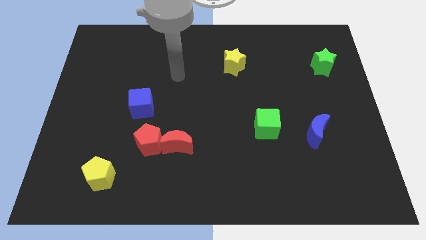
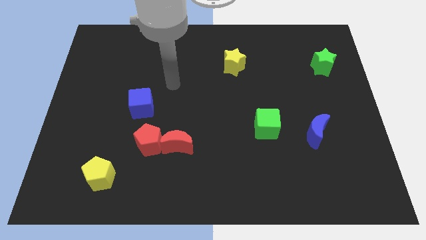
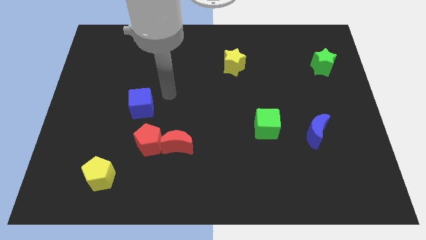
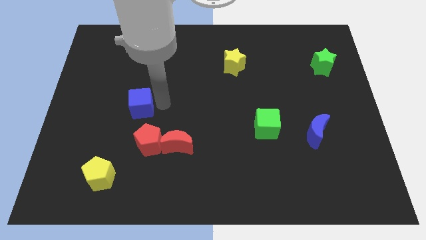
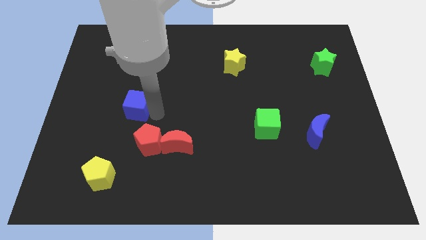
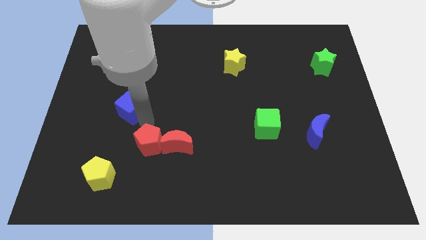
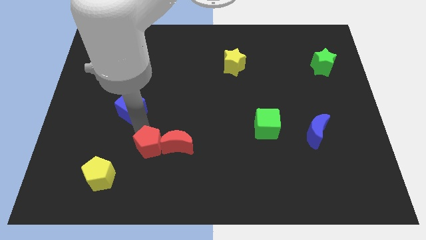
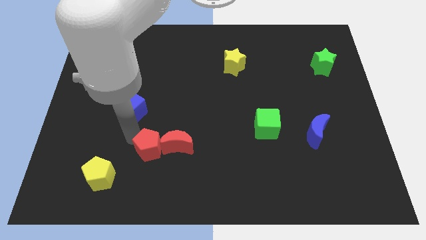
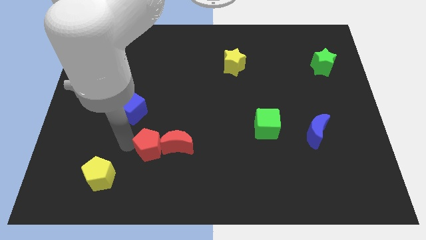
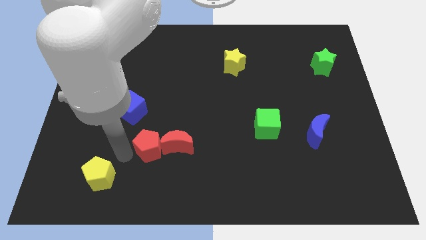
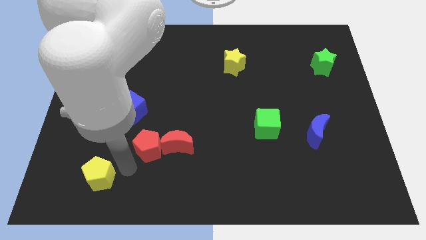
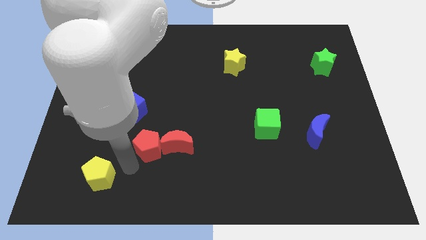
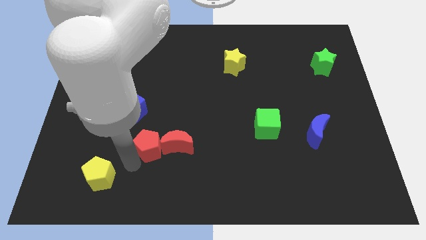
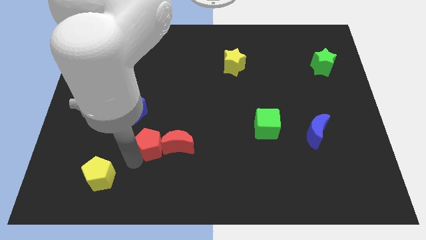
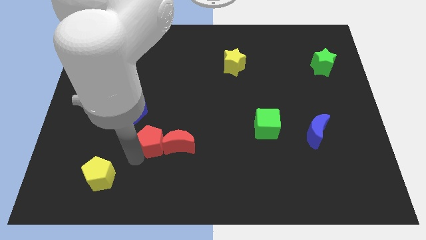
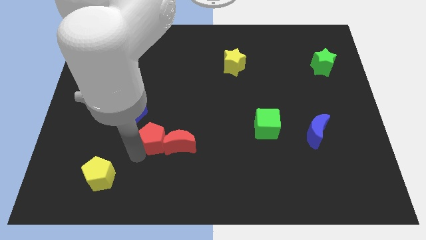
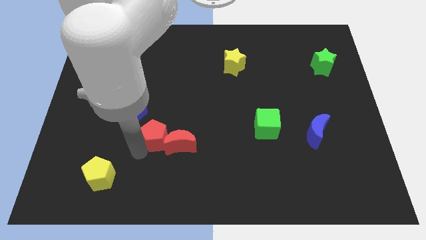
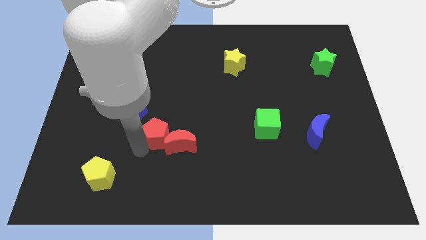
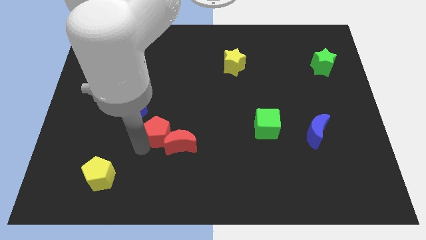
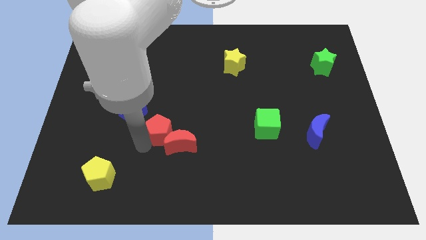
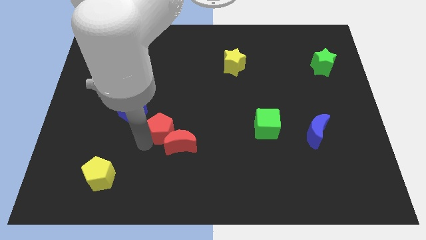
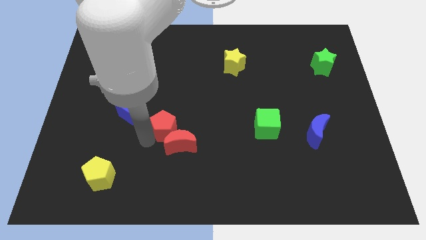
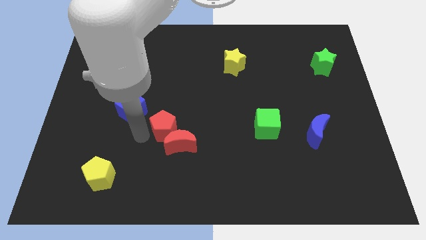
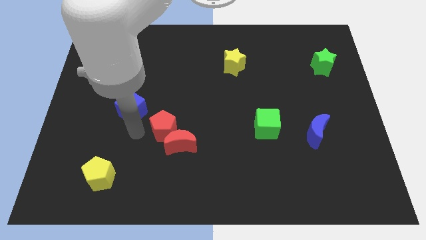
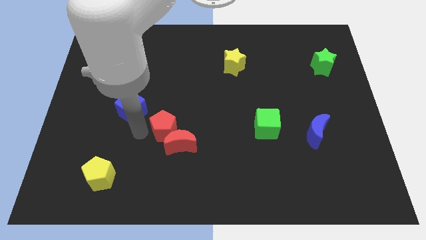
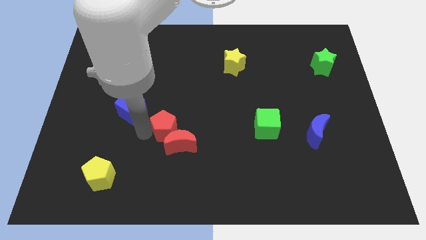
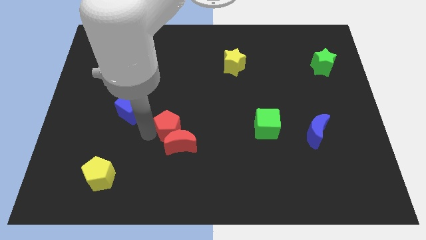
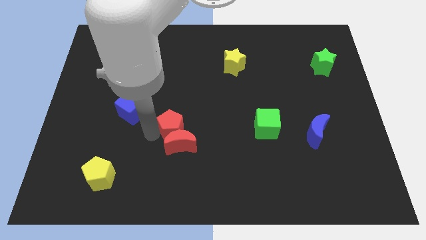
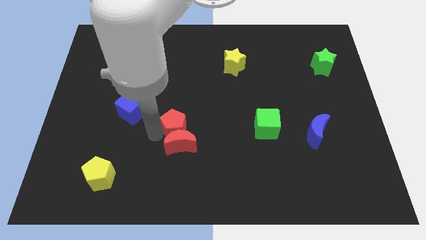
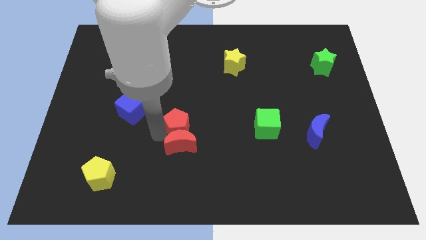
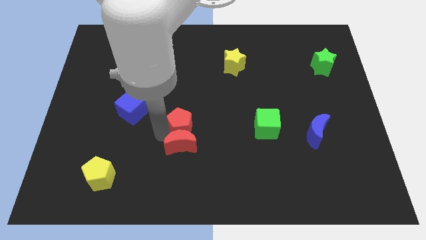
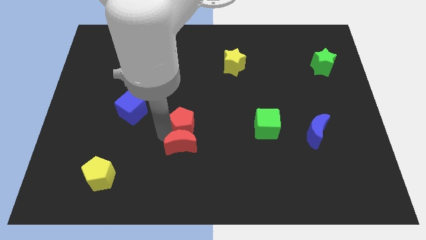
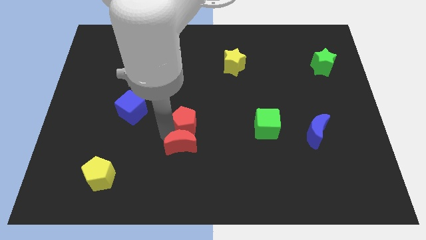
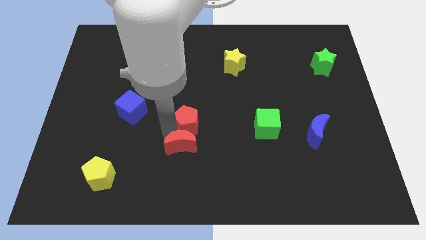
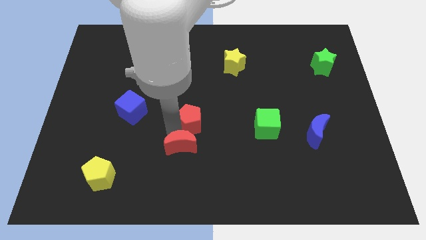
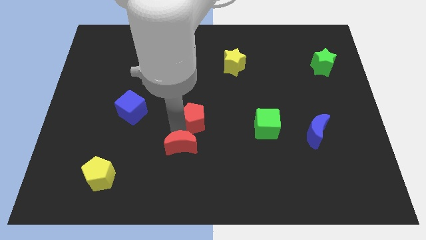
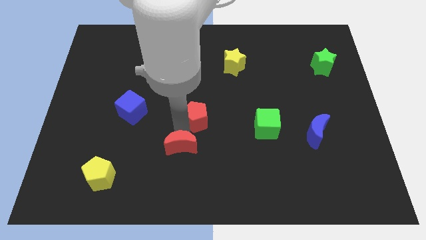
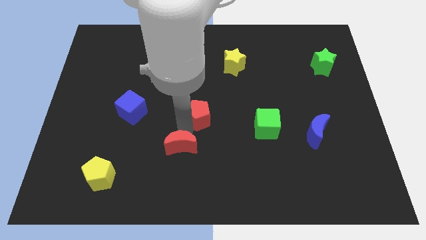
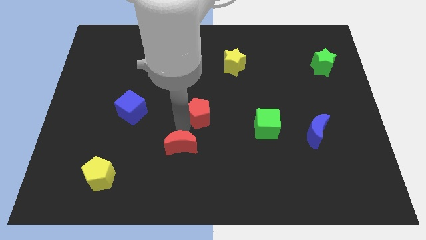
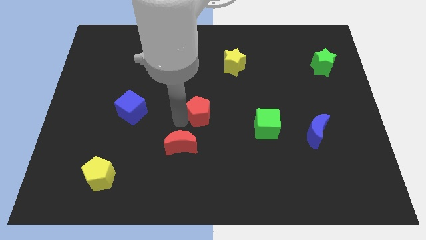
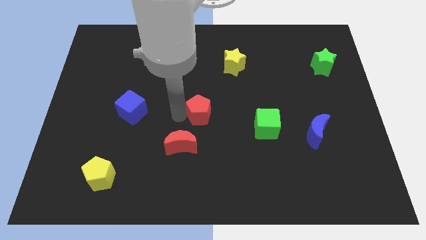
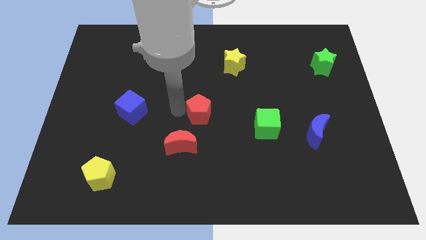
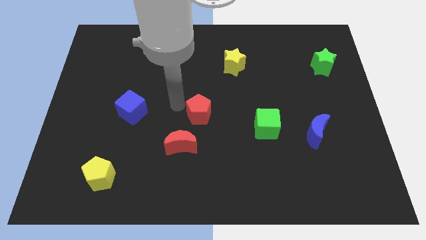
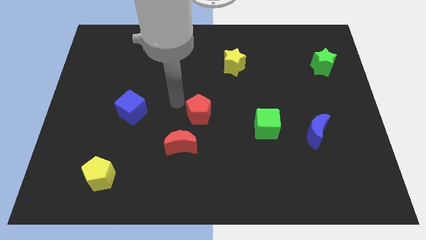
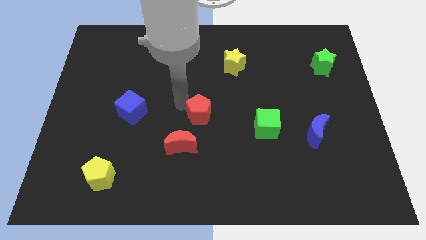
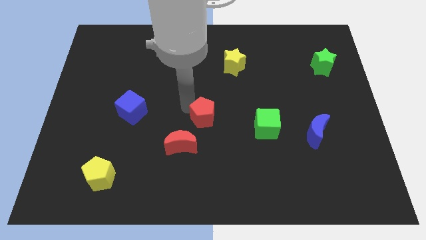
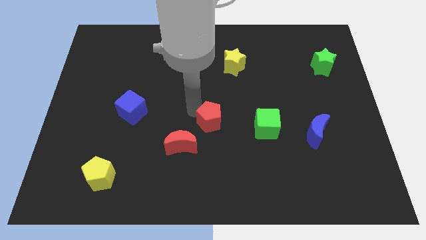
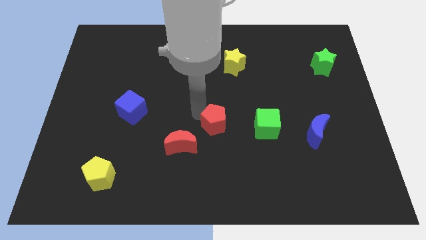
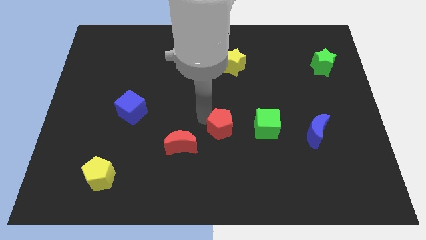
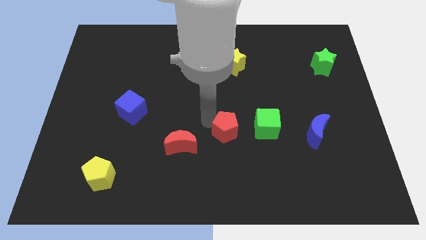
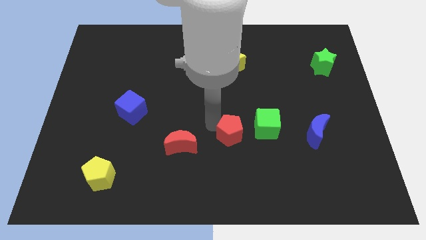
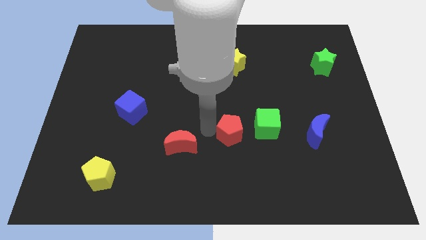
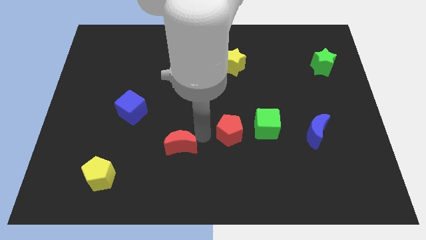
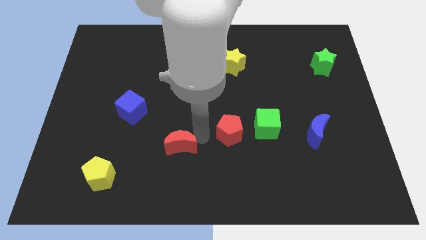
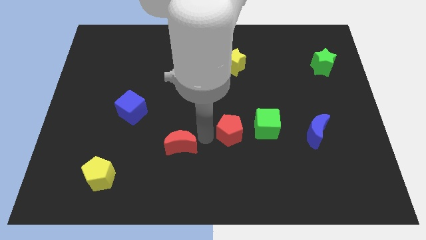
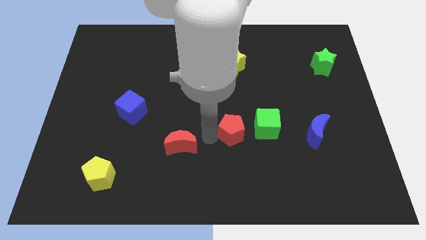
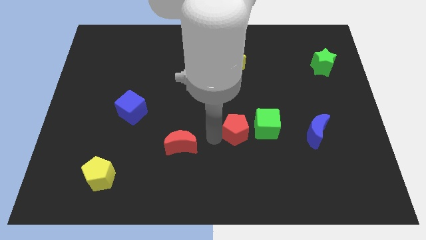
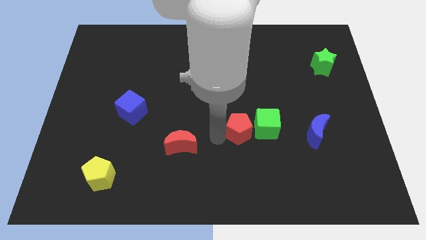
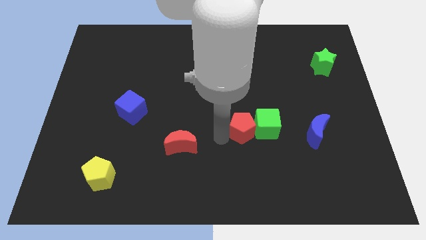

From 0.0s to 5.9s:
slide the red pentagon close to the green cube

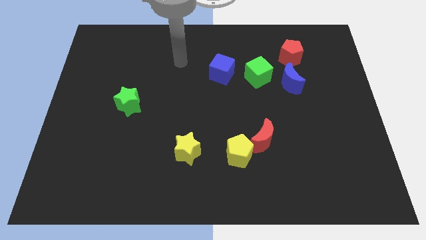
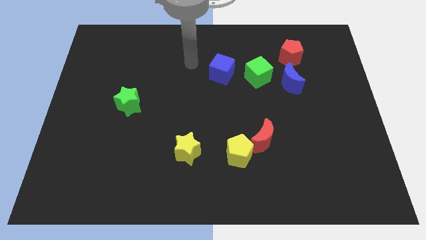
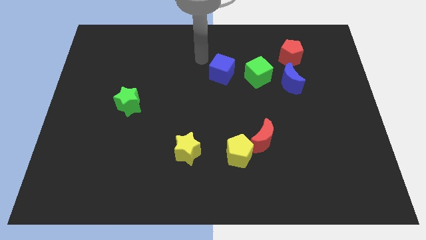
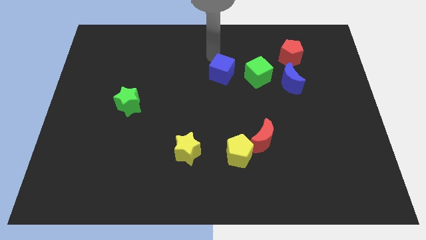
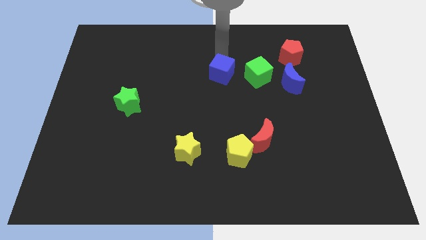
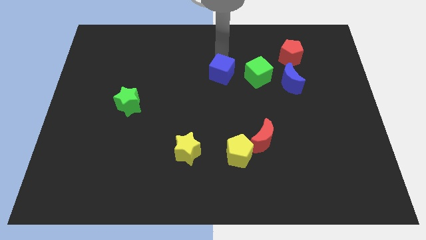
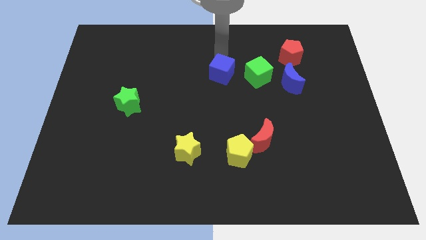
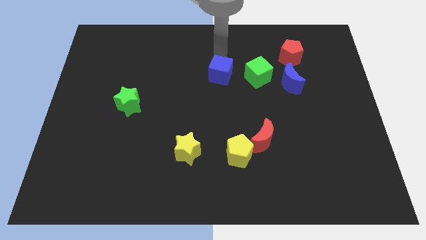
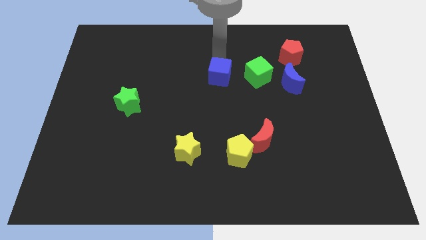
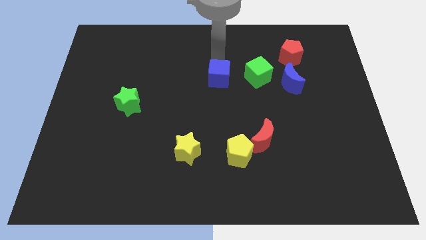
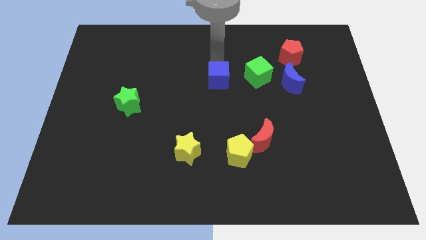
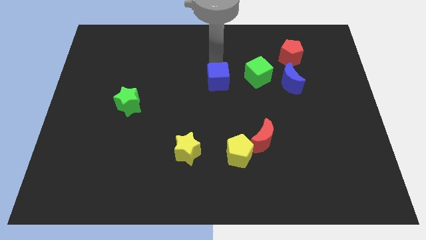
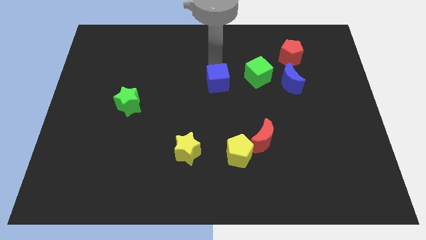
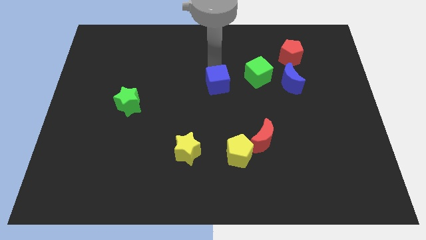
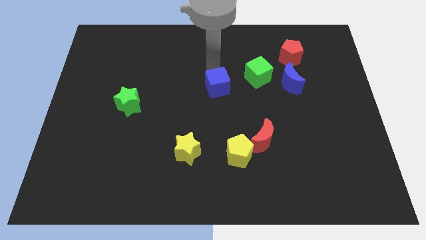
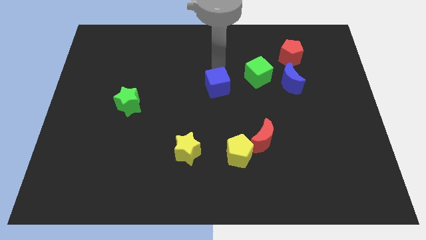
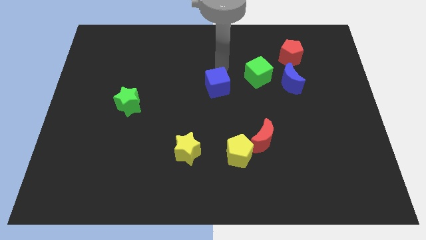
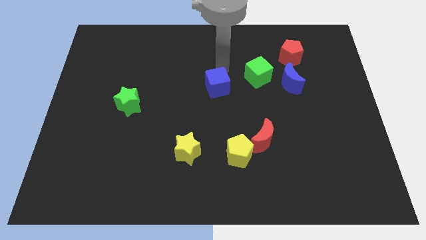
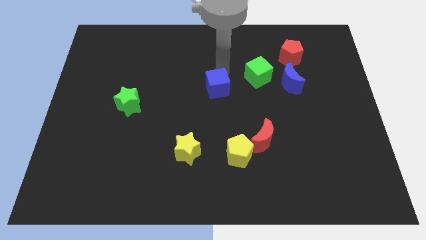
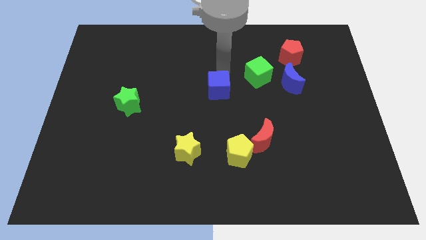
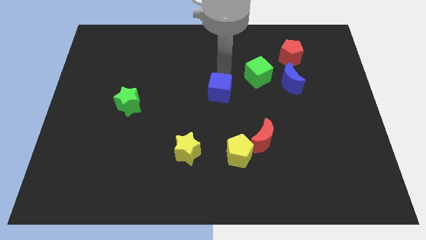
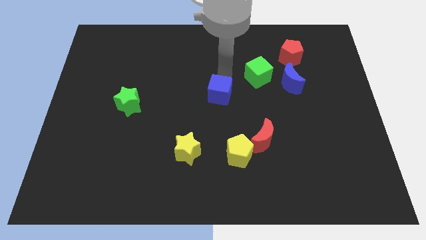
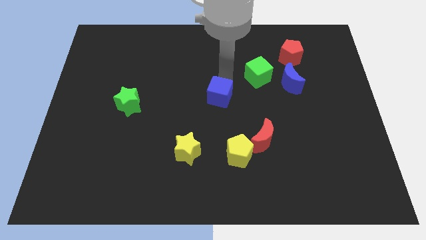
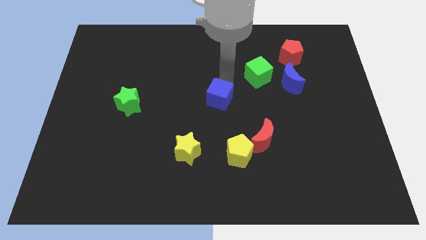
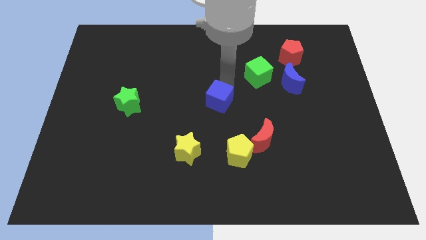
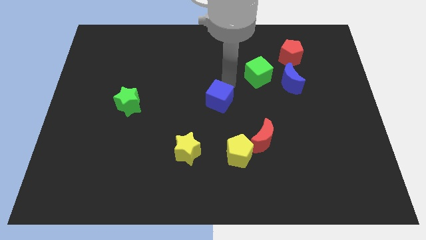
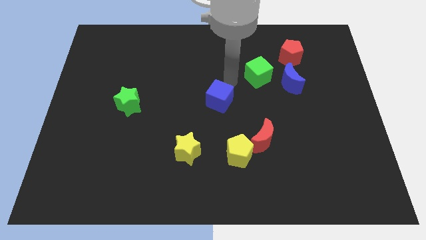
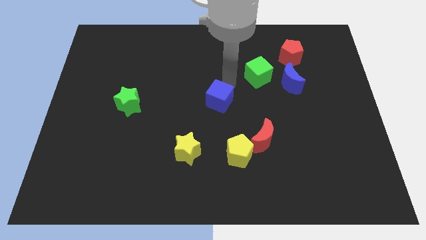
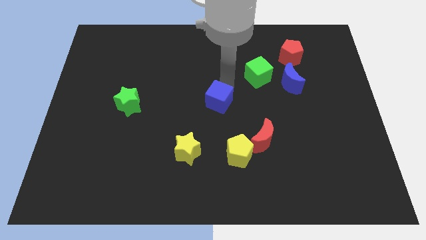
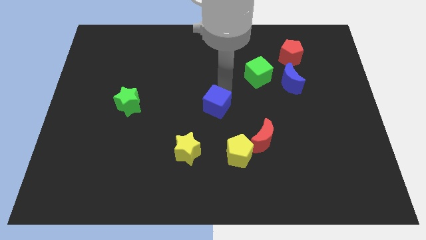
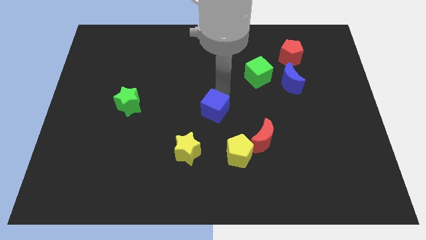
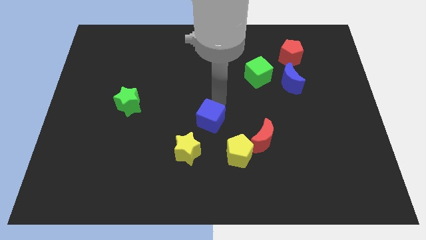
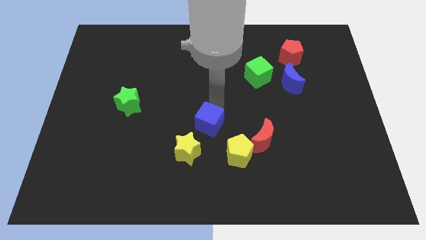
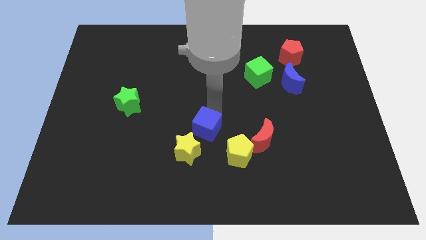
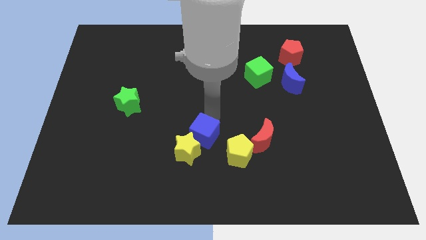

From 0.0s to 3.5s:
put the blue cube towards the yellow star
